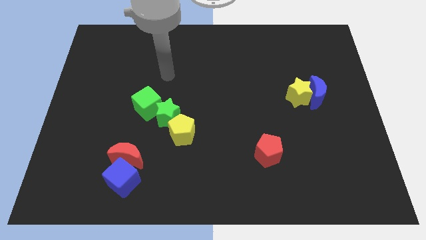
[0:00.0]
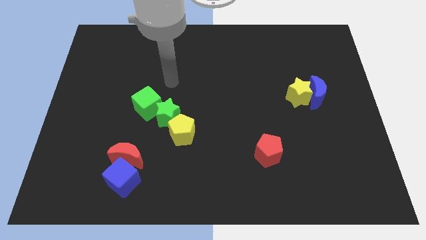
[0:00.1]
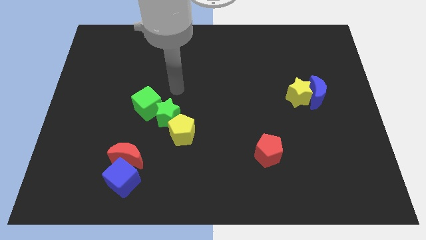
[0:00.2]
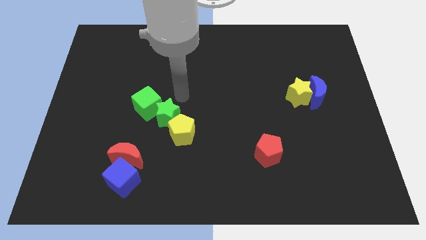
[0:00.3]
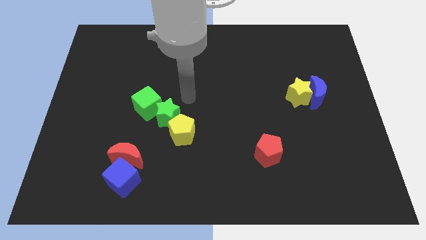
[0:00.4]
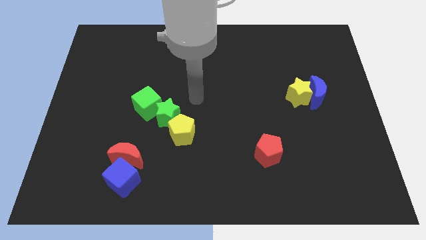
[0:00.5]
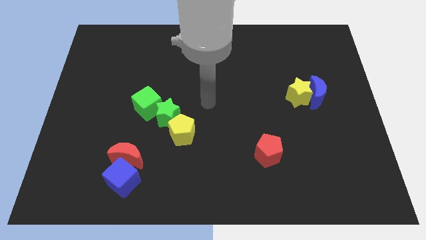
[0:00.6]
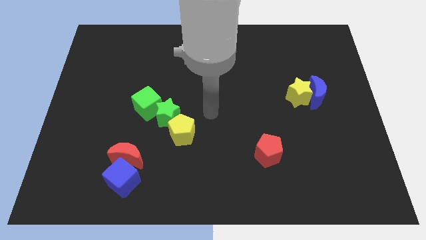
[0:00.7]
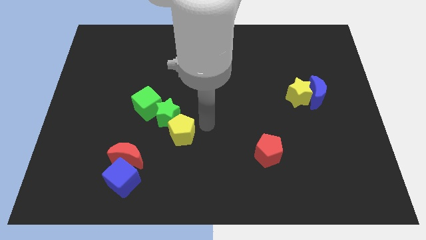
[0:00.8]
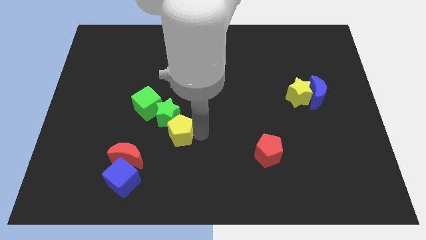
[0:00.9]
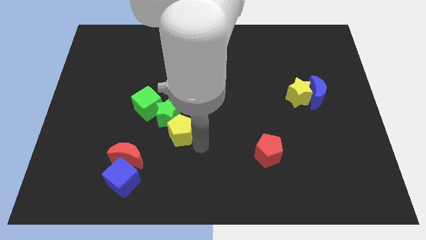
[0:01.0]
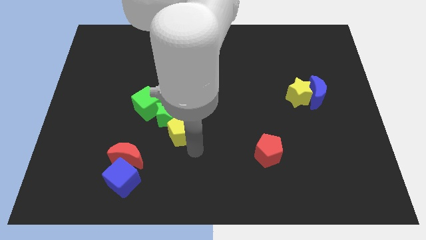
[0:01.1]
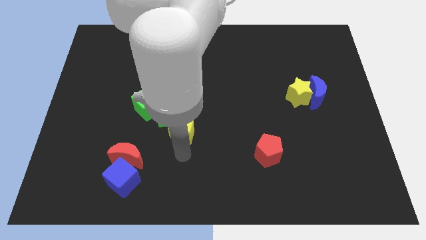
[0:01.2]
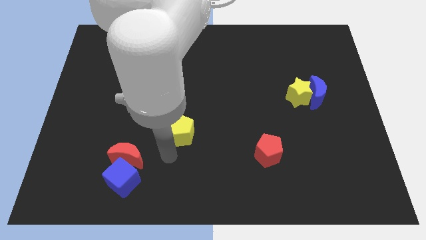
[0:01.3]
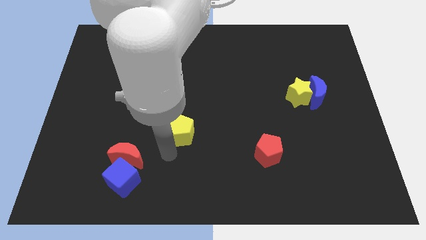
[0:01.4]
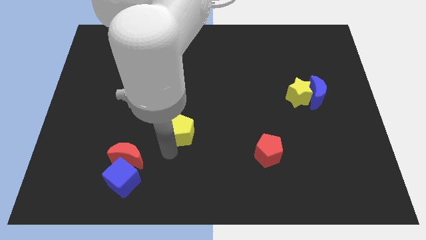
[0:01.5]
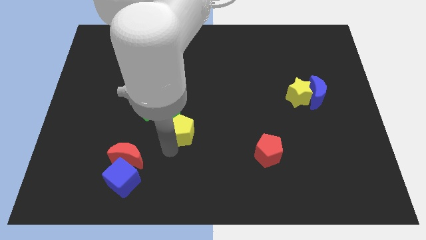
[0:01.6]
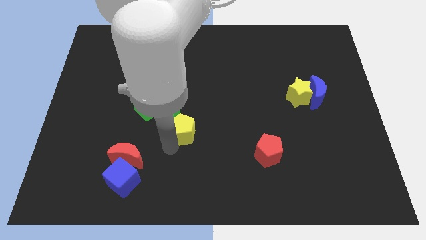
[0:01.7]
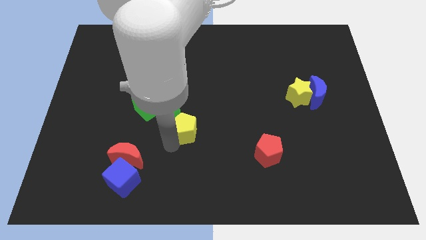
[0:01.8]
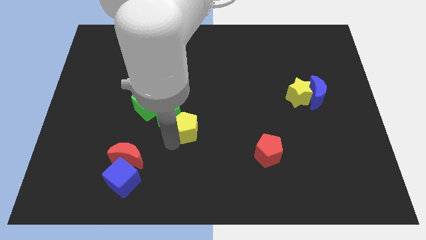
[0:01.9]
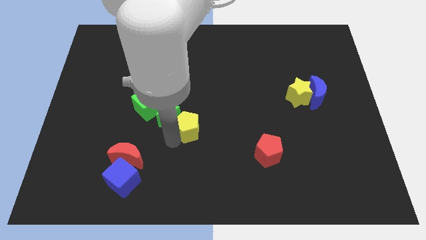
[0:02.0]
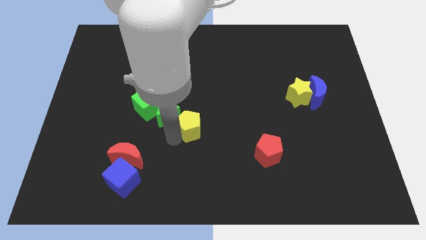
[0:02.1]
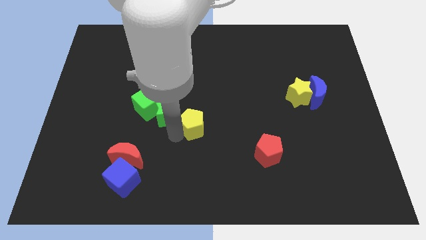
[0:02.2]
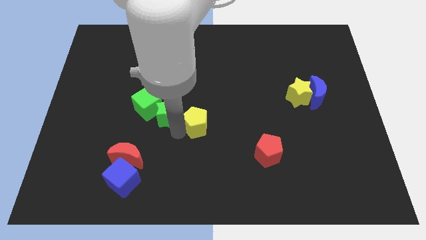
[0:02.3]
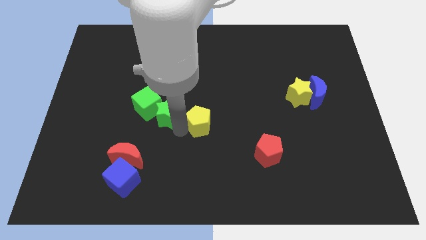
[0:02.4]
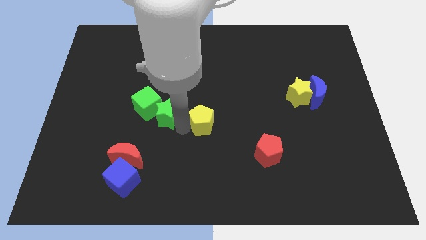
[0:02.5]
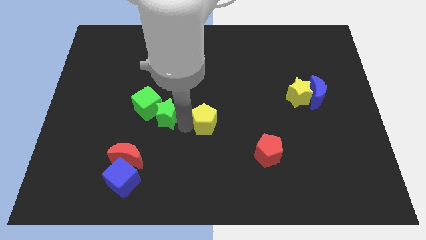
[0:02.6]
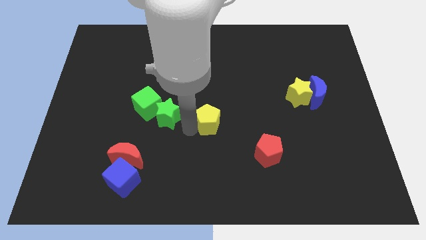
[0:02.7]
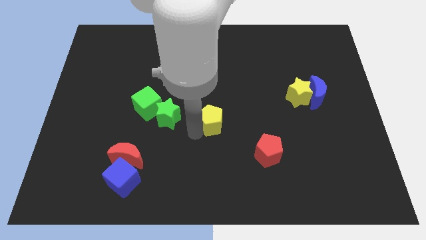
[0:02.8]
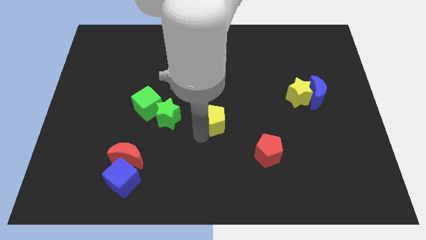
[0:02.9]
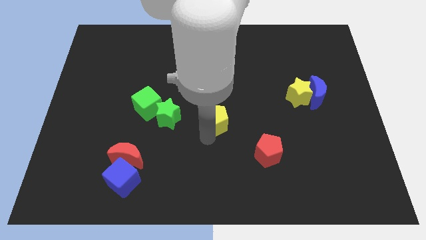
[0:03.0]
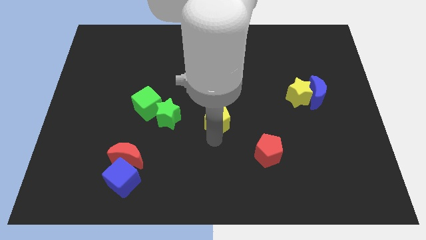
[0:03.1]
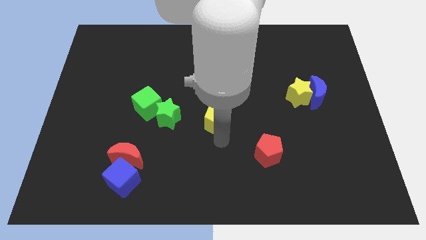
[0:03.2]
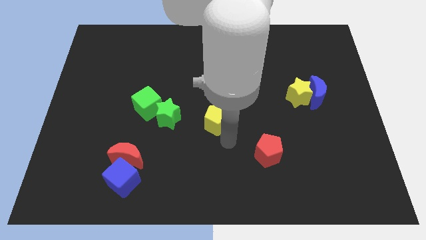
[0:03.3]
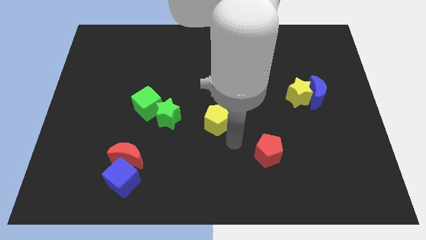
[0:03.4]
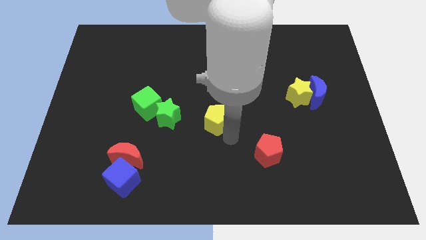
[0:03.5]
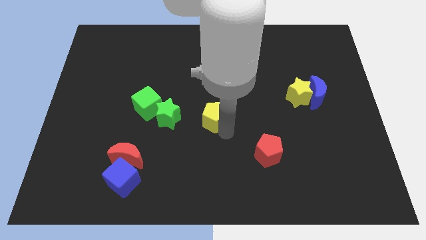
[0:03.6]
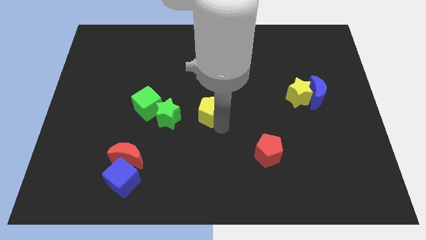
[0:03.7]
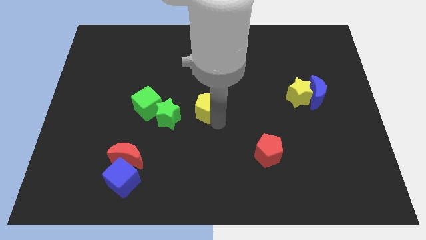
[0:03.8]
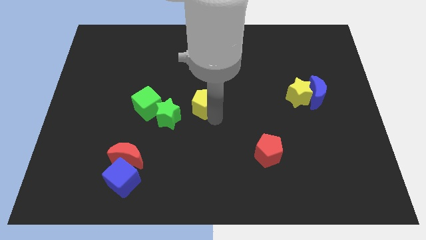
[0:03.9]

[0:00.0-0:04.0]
push the yellow pentagon upwards a little

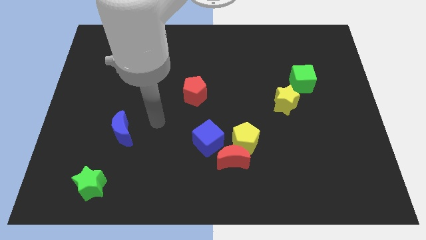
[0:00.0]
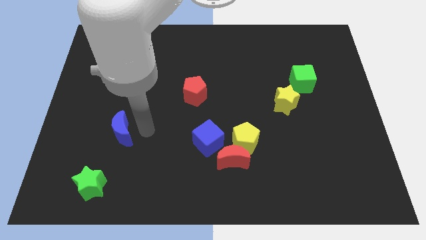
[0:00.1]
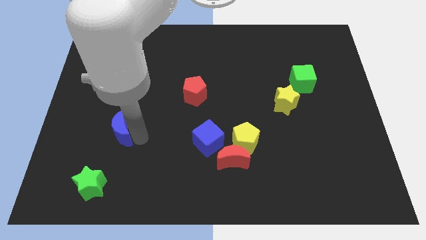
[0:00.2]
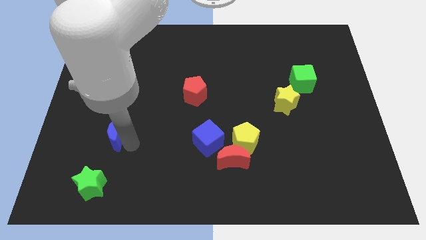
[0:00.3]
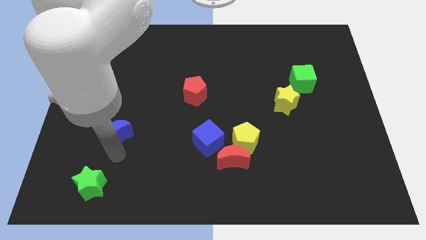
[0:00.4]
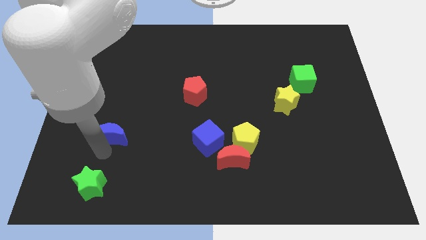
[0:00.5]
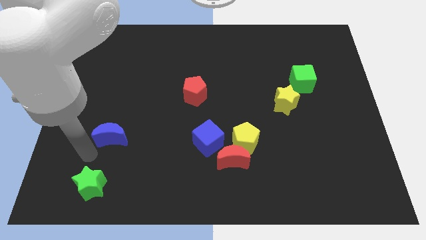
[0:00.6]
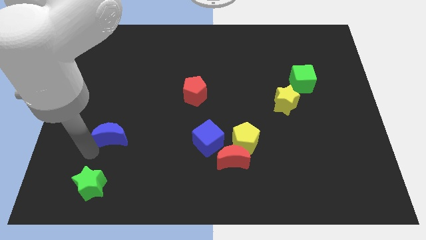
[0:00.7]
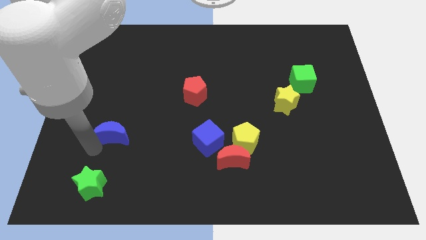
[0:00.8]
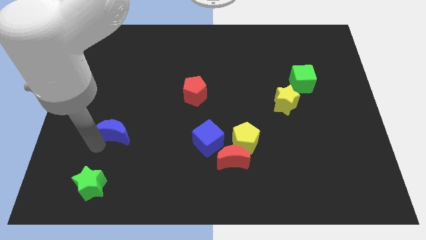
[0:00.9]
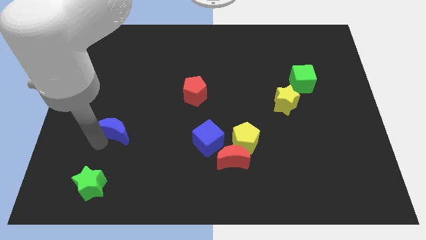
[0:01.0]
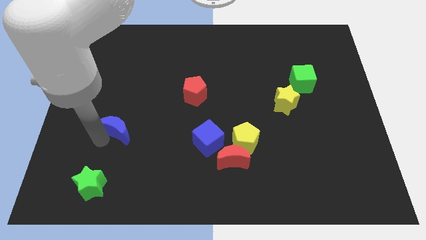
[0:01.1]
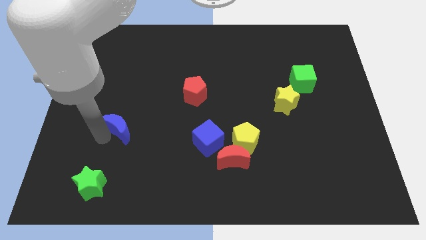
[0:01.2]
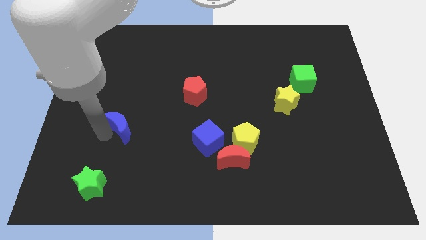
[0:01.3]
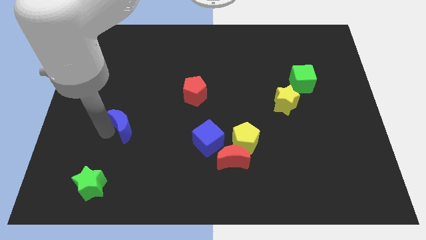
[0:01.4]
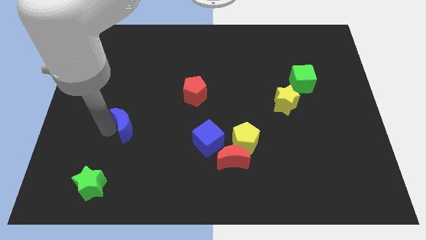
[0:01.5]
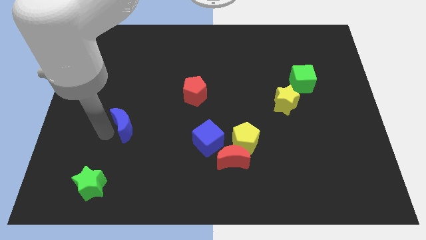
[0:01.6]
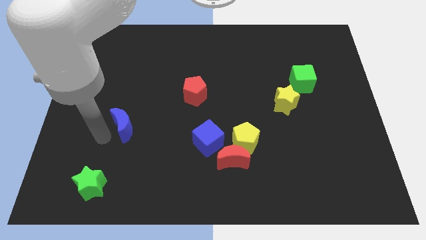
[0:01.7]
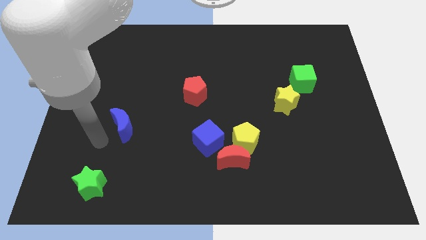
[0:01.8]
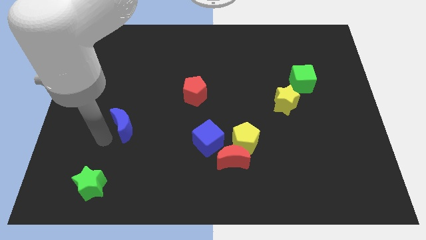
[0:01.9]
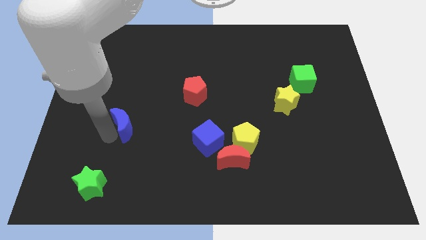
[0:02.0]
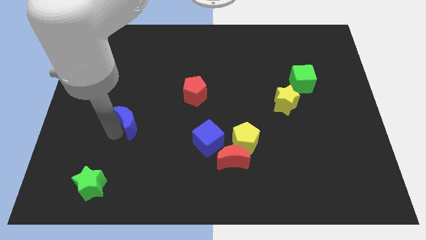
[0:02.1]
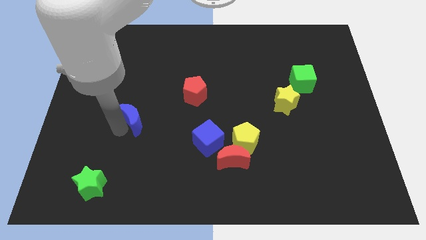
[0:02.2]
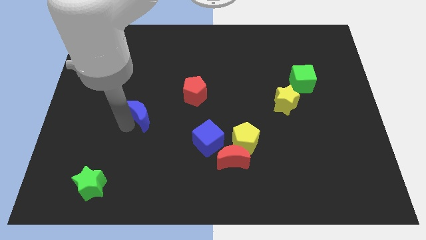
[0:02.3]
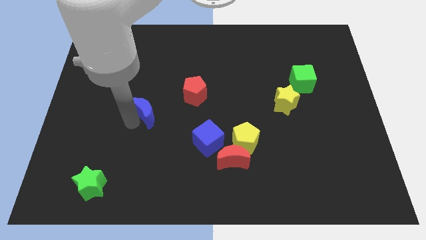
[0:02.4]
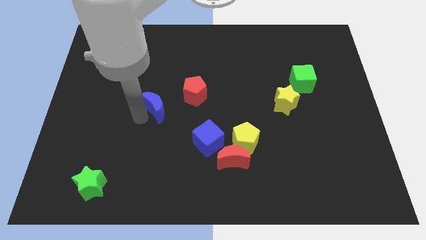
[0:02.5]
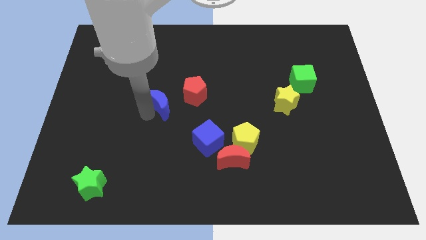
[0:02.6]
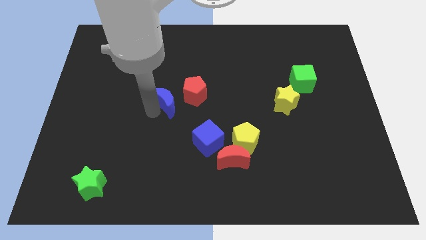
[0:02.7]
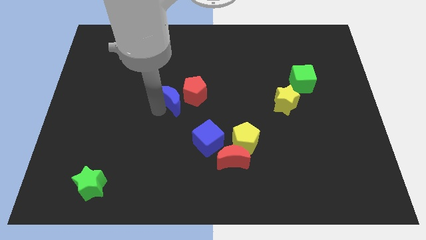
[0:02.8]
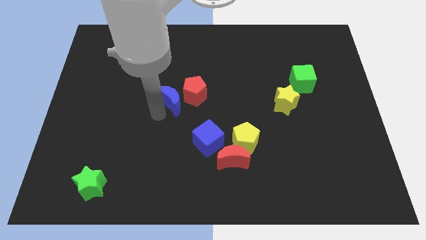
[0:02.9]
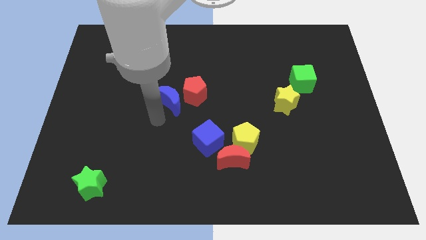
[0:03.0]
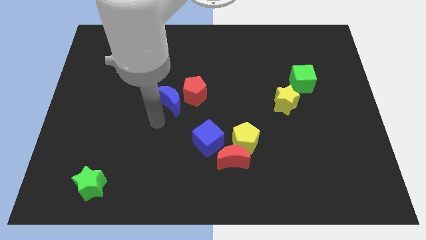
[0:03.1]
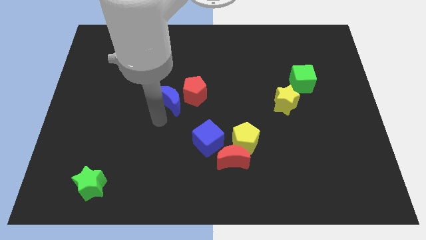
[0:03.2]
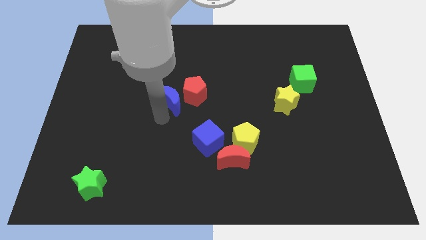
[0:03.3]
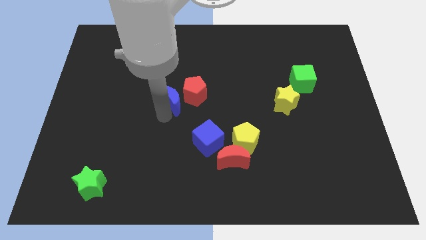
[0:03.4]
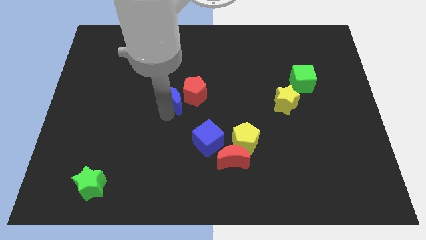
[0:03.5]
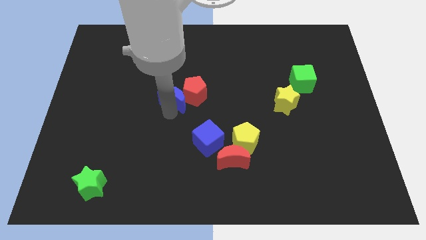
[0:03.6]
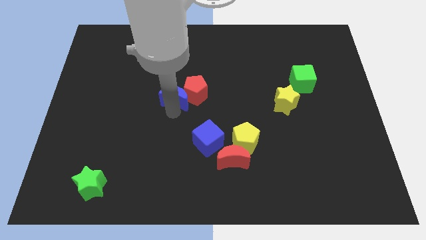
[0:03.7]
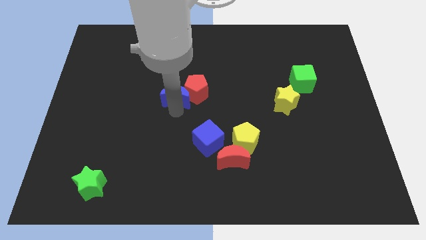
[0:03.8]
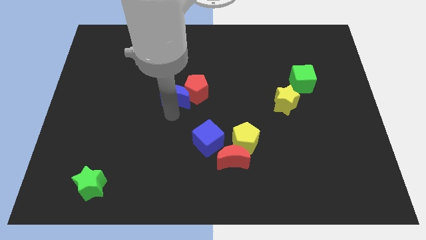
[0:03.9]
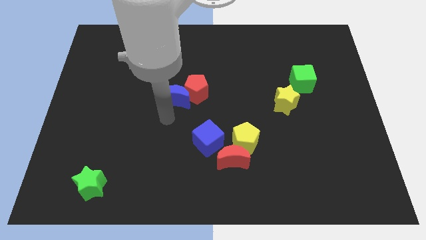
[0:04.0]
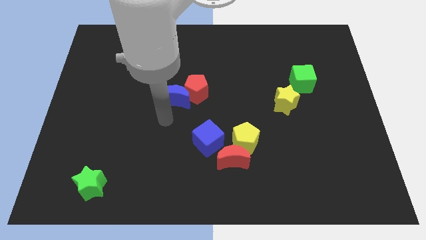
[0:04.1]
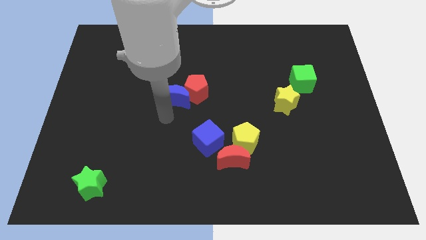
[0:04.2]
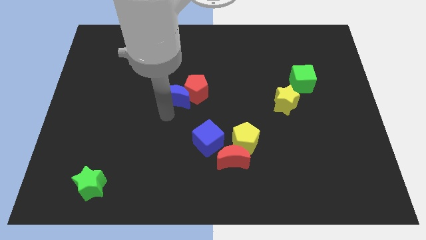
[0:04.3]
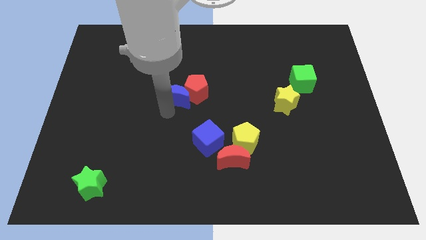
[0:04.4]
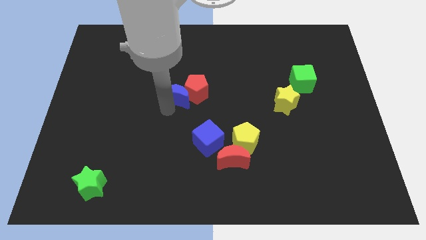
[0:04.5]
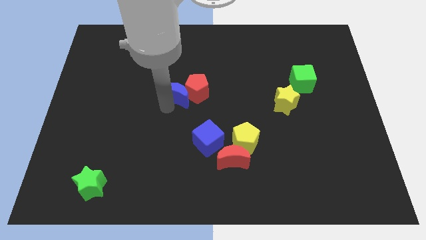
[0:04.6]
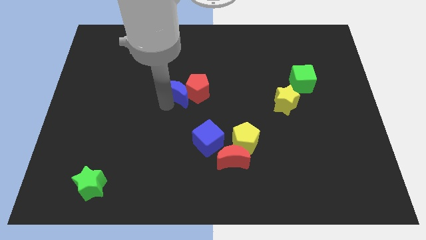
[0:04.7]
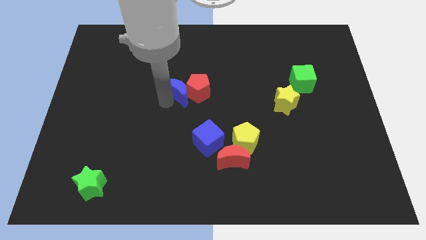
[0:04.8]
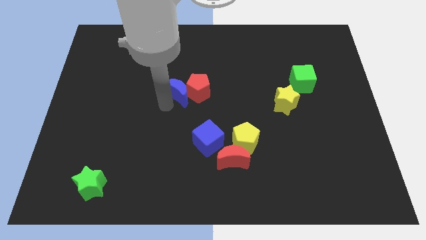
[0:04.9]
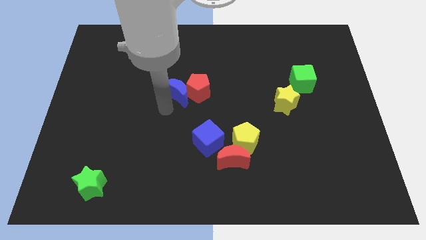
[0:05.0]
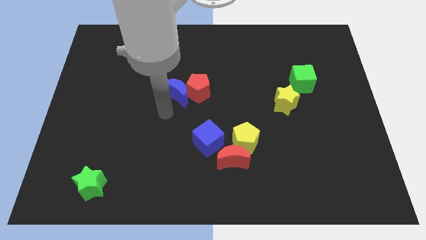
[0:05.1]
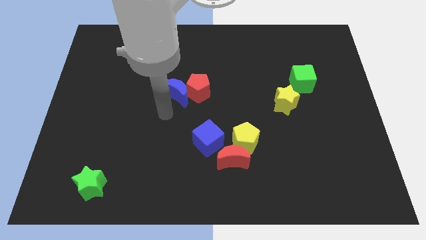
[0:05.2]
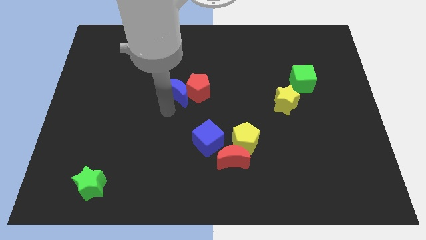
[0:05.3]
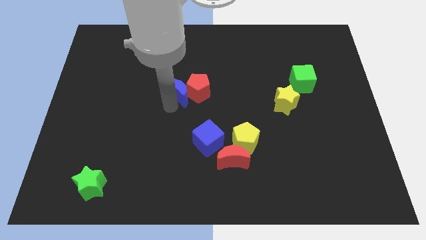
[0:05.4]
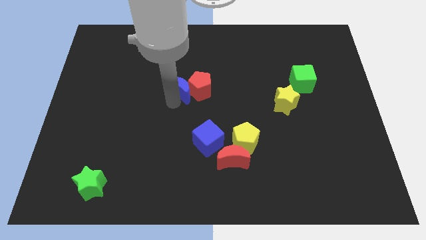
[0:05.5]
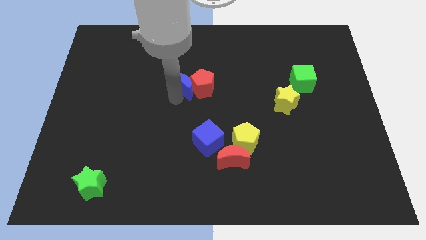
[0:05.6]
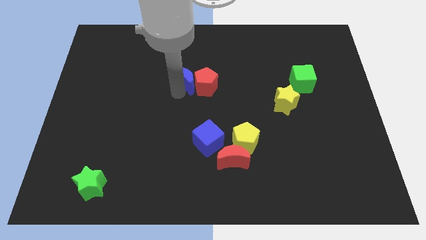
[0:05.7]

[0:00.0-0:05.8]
slide the blue moon upwards and to the right diagonally
